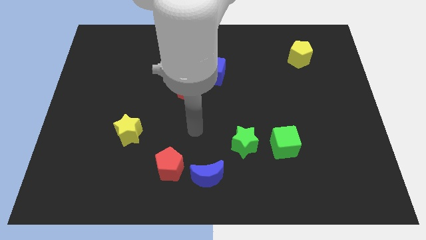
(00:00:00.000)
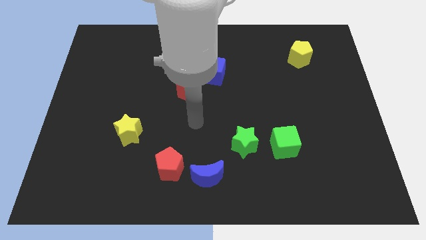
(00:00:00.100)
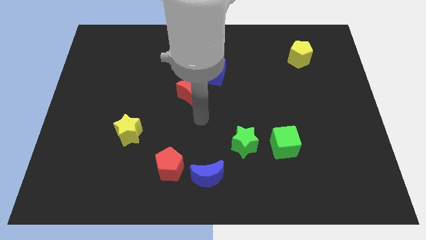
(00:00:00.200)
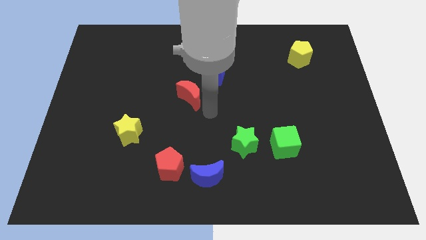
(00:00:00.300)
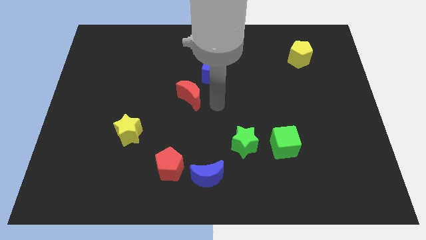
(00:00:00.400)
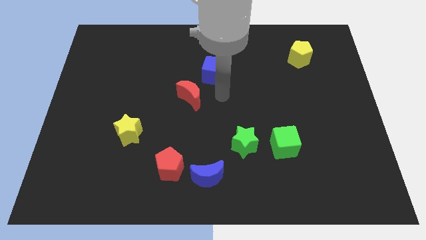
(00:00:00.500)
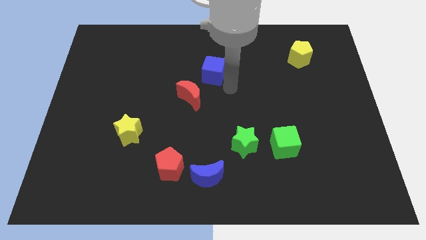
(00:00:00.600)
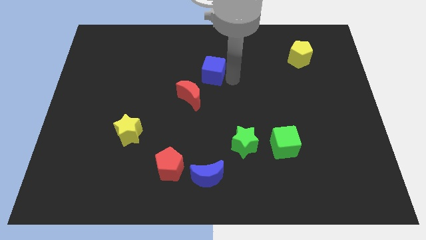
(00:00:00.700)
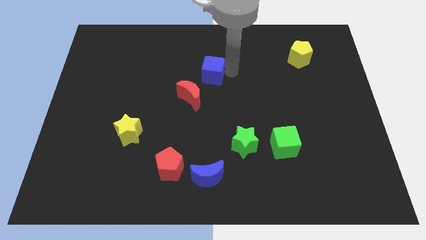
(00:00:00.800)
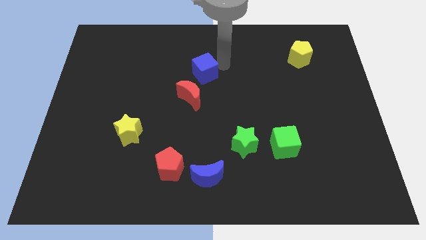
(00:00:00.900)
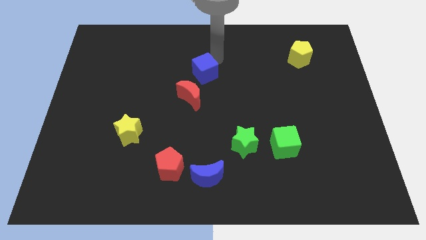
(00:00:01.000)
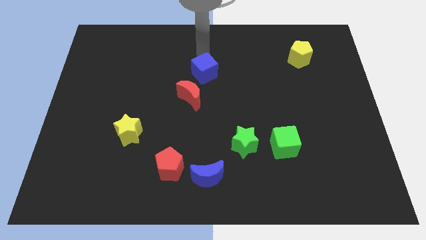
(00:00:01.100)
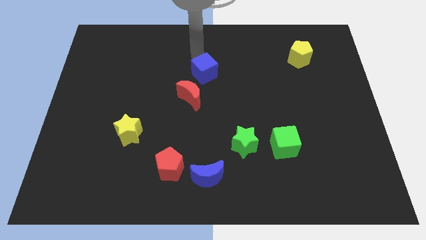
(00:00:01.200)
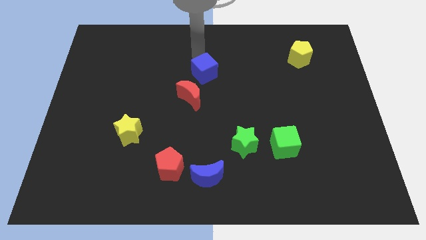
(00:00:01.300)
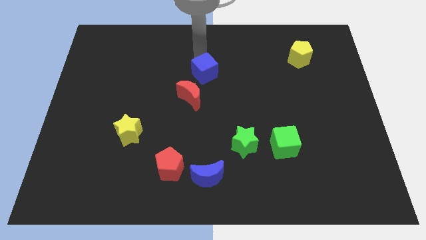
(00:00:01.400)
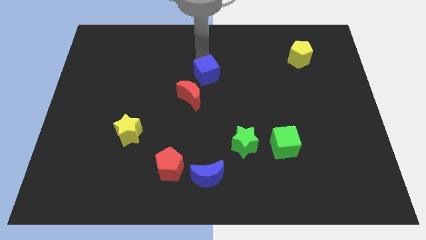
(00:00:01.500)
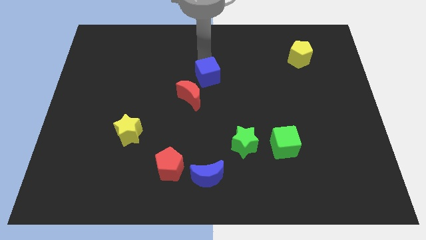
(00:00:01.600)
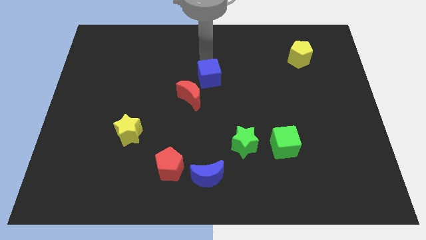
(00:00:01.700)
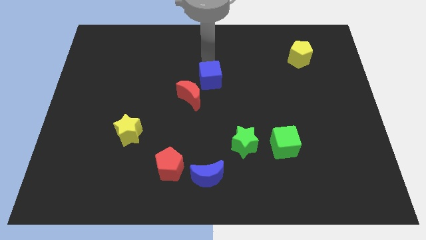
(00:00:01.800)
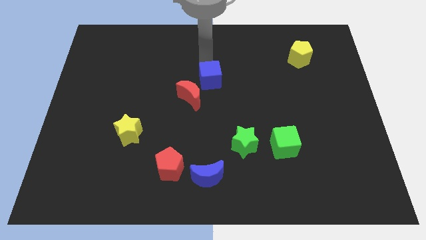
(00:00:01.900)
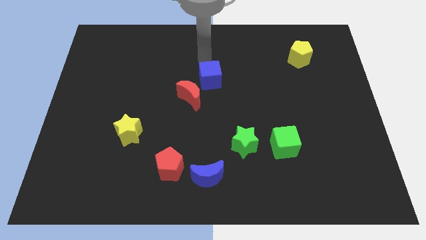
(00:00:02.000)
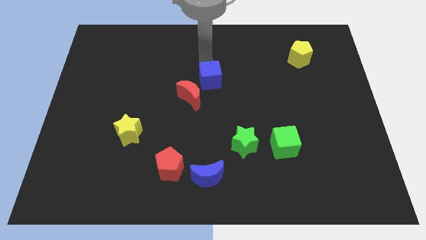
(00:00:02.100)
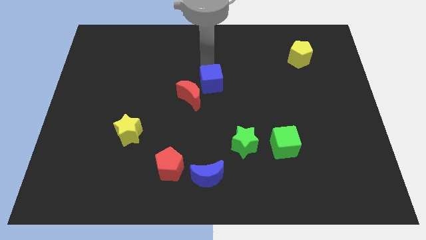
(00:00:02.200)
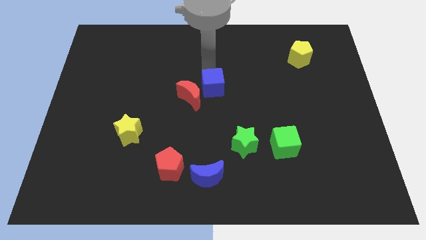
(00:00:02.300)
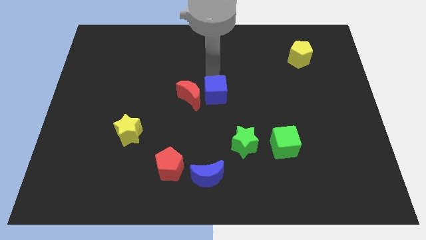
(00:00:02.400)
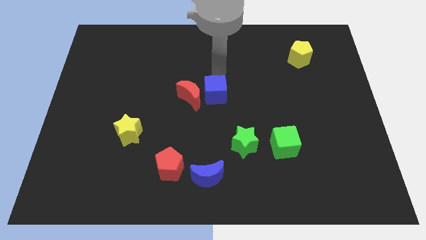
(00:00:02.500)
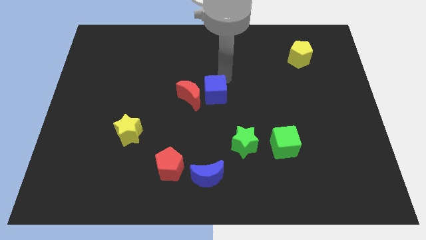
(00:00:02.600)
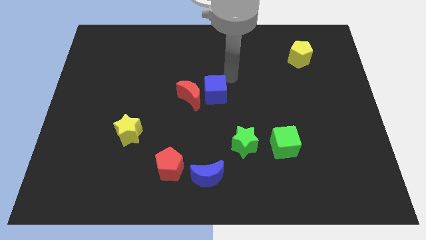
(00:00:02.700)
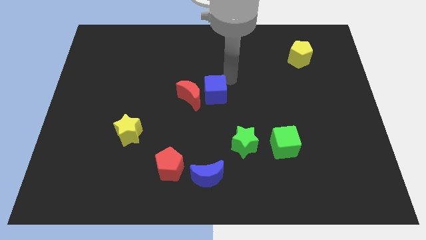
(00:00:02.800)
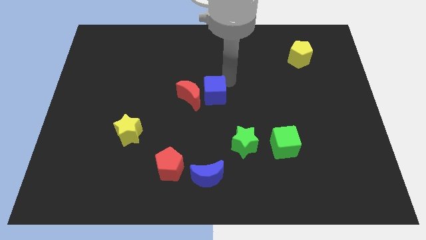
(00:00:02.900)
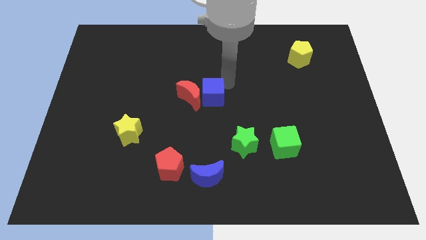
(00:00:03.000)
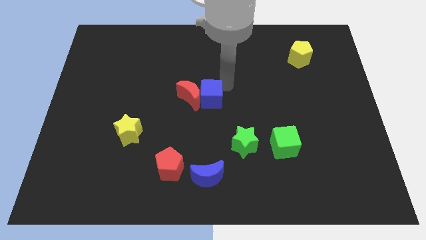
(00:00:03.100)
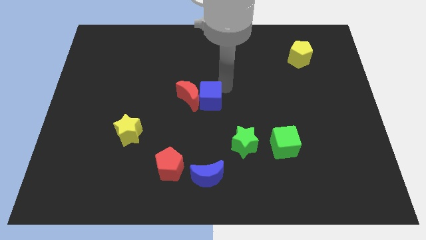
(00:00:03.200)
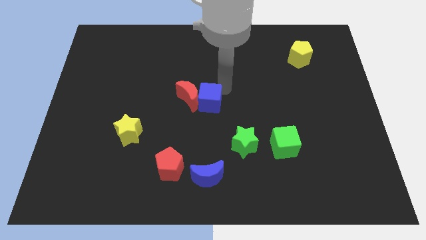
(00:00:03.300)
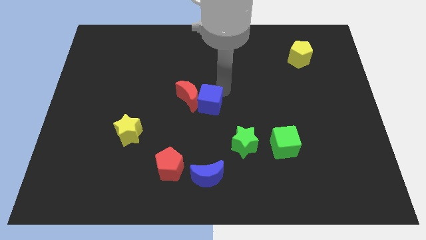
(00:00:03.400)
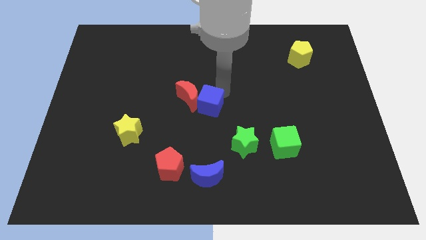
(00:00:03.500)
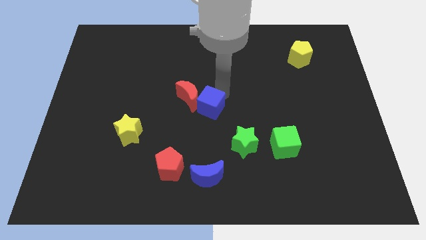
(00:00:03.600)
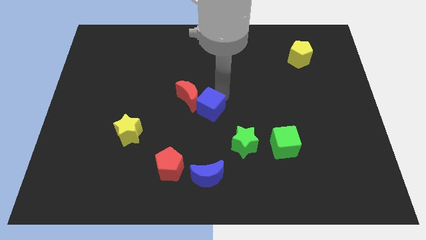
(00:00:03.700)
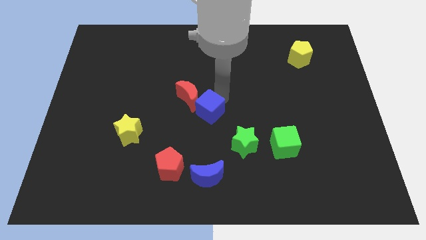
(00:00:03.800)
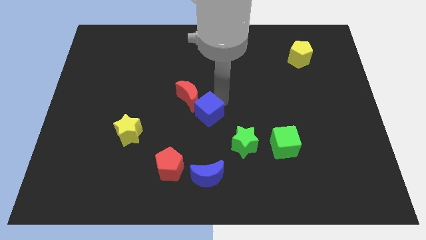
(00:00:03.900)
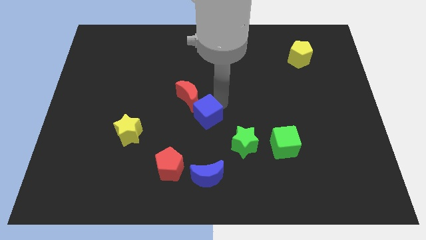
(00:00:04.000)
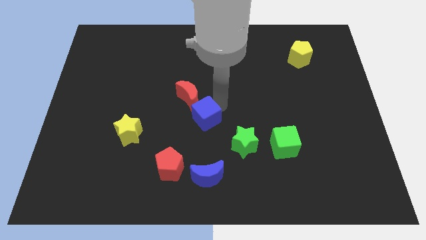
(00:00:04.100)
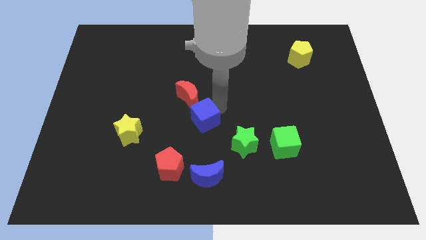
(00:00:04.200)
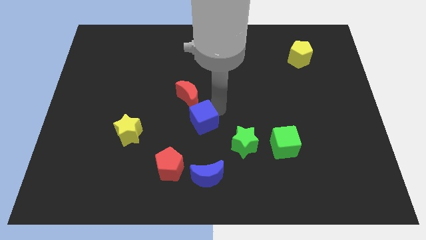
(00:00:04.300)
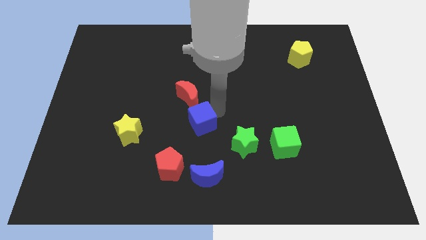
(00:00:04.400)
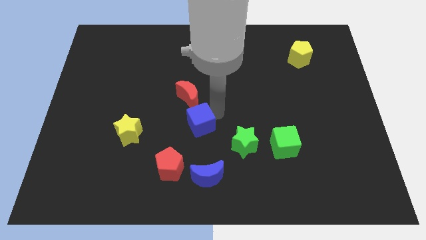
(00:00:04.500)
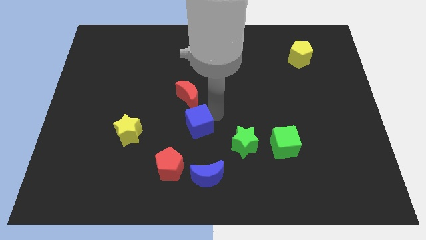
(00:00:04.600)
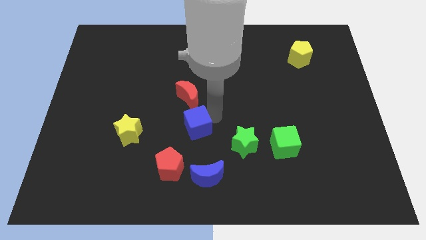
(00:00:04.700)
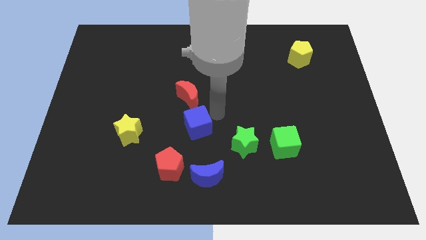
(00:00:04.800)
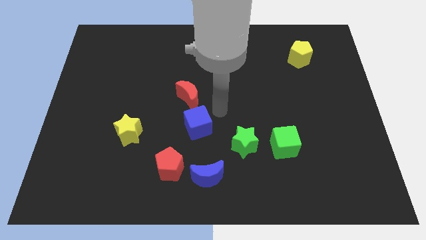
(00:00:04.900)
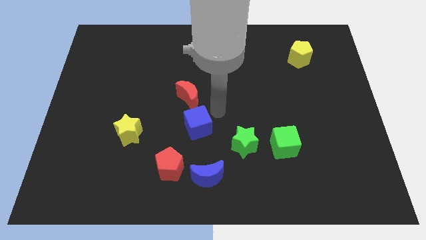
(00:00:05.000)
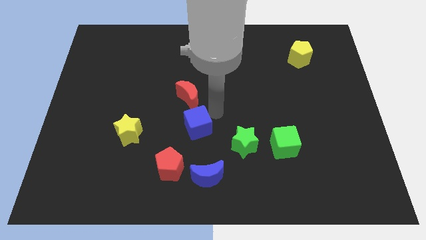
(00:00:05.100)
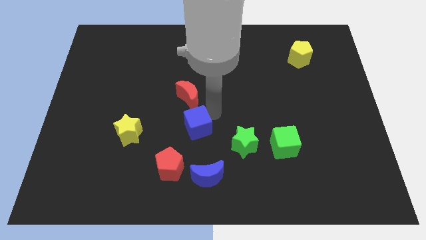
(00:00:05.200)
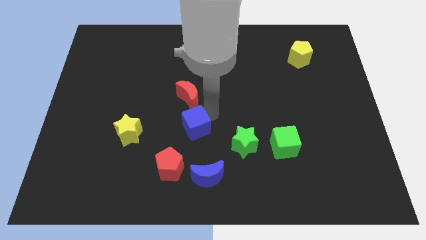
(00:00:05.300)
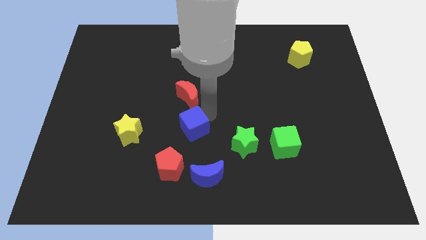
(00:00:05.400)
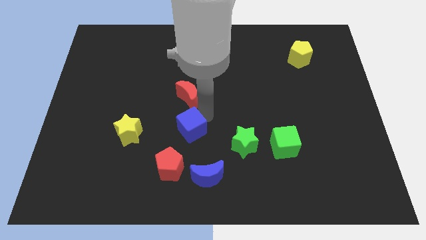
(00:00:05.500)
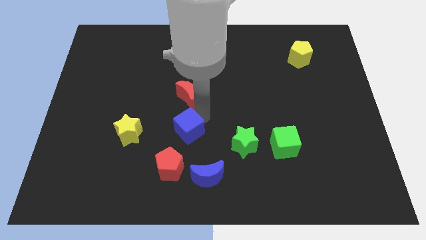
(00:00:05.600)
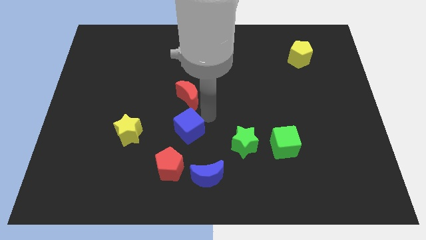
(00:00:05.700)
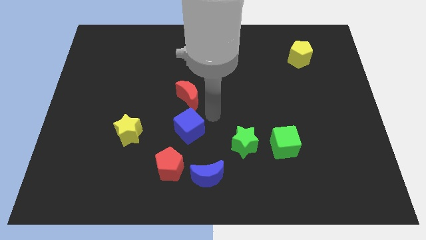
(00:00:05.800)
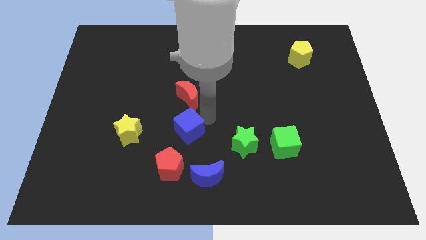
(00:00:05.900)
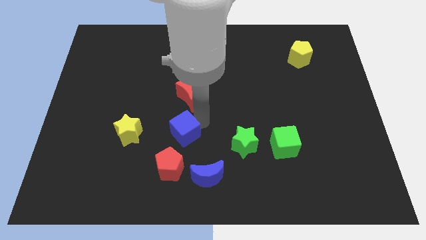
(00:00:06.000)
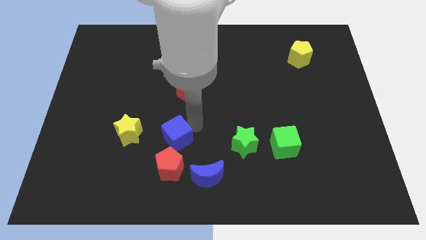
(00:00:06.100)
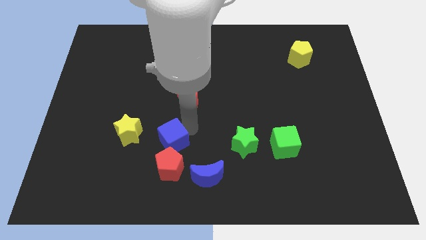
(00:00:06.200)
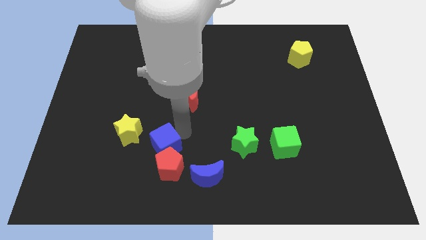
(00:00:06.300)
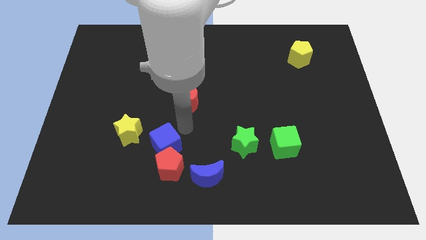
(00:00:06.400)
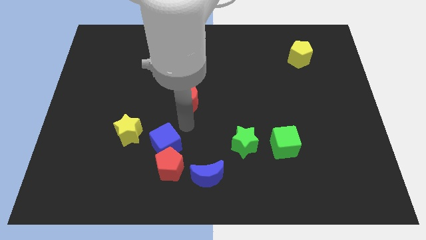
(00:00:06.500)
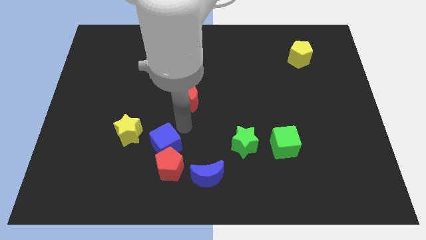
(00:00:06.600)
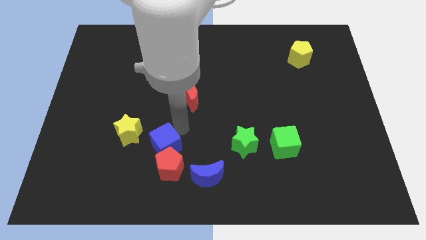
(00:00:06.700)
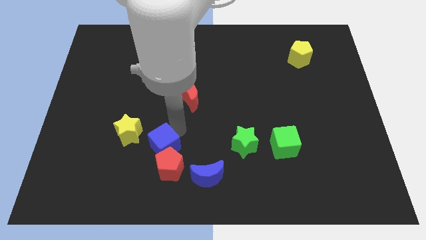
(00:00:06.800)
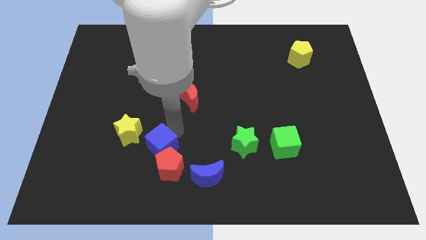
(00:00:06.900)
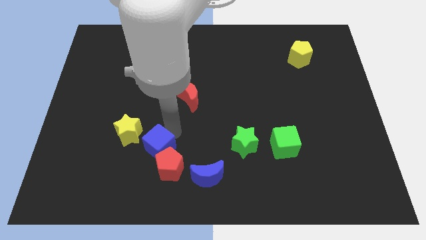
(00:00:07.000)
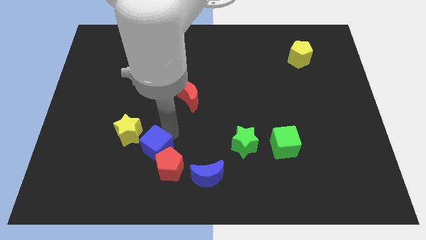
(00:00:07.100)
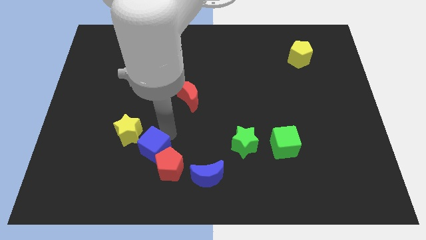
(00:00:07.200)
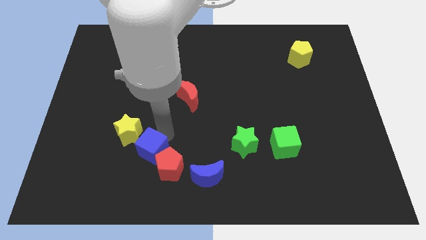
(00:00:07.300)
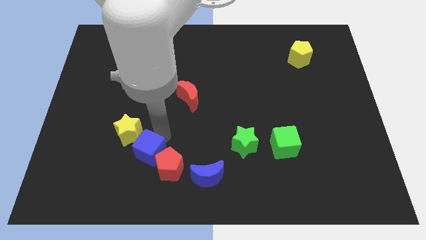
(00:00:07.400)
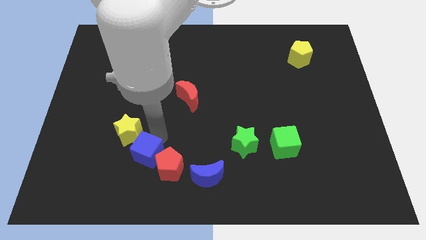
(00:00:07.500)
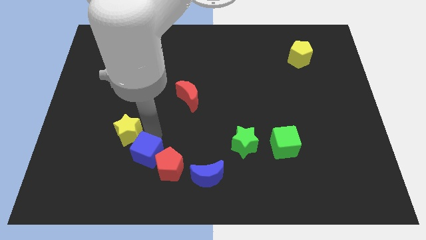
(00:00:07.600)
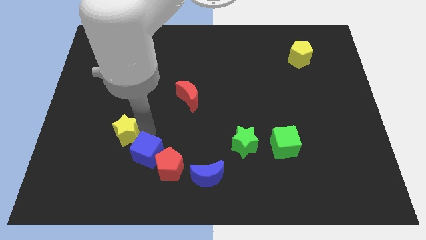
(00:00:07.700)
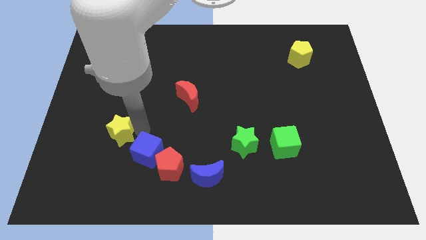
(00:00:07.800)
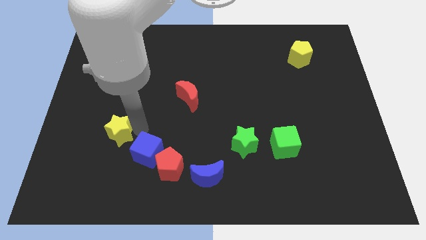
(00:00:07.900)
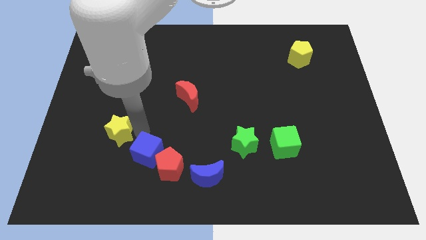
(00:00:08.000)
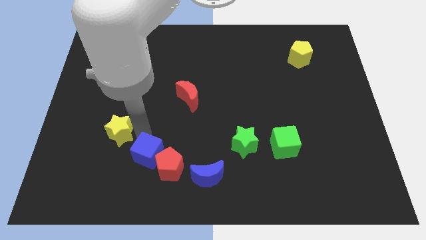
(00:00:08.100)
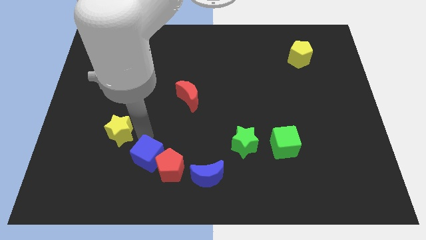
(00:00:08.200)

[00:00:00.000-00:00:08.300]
slide the blue cube just left of the blue moon
